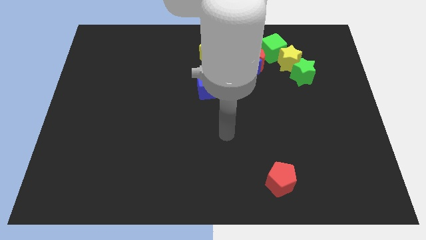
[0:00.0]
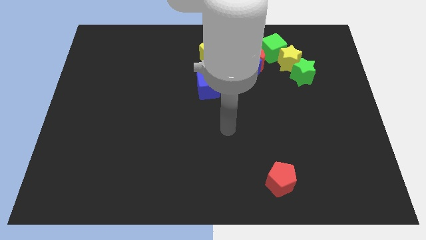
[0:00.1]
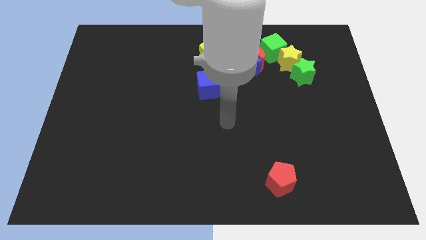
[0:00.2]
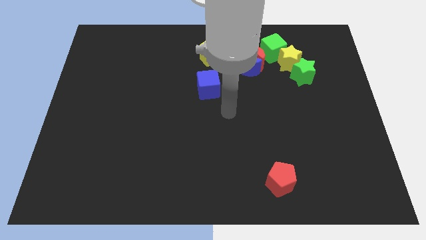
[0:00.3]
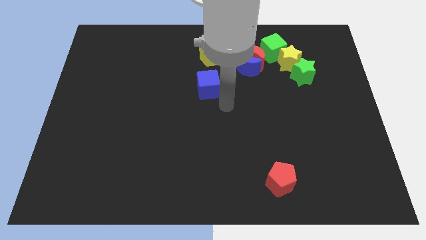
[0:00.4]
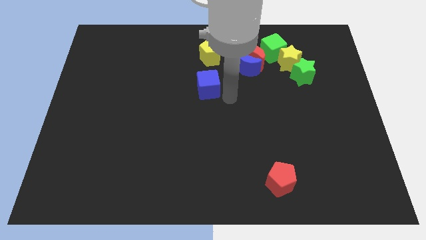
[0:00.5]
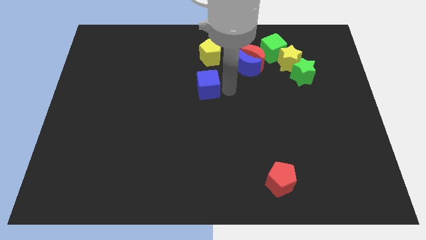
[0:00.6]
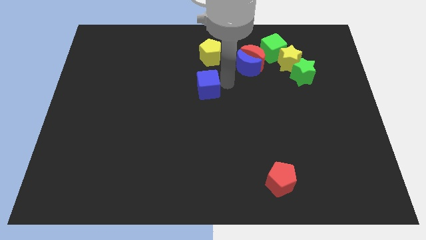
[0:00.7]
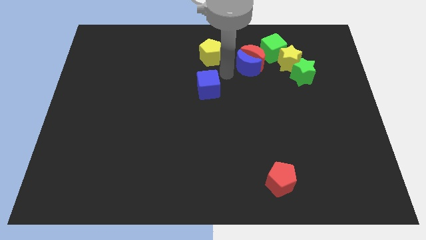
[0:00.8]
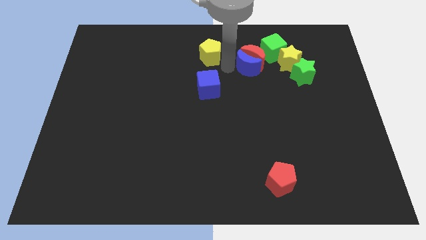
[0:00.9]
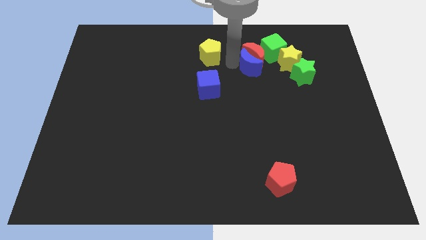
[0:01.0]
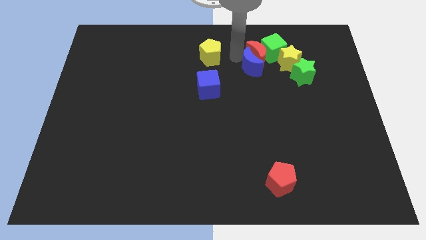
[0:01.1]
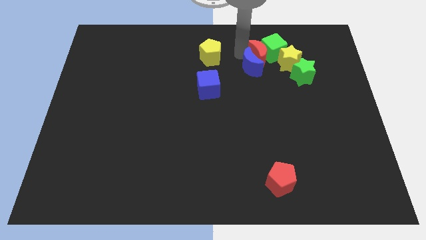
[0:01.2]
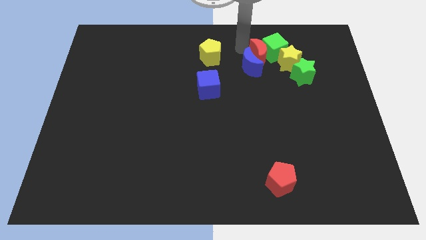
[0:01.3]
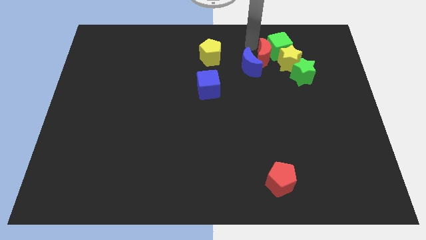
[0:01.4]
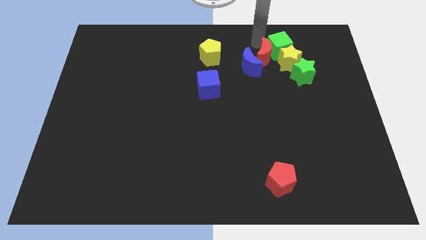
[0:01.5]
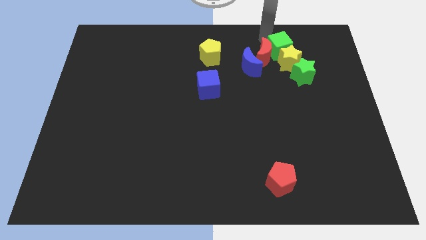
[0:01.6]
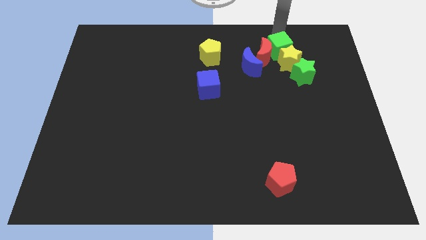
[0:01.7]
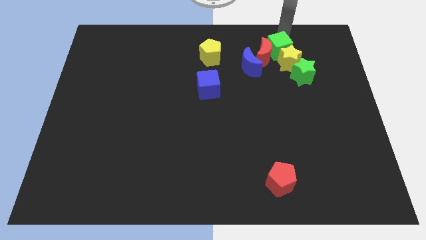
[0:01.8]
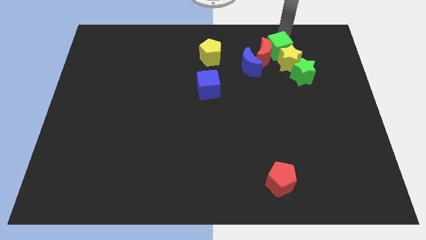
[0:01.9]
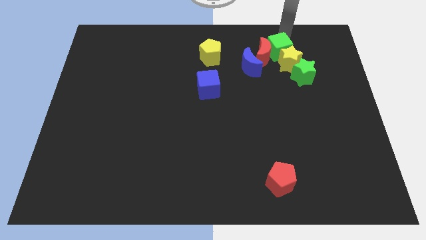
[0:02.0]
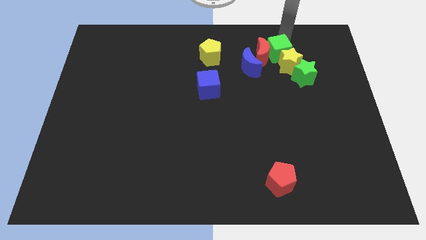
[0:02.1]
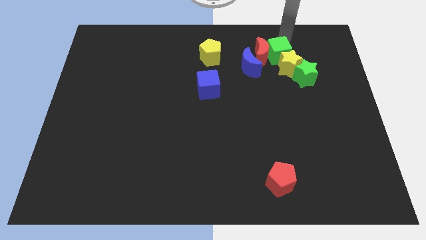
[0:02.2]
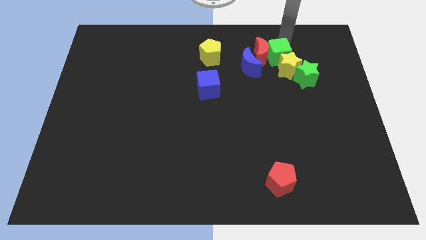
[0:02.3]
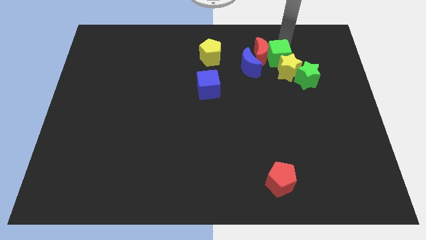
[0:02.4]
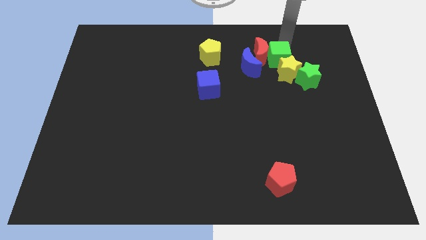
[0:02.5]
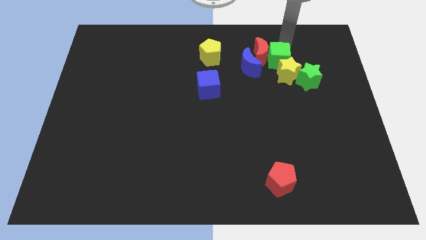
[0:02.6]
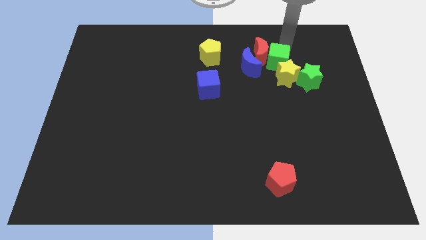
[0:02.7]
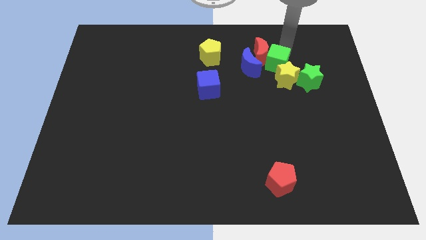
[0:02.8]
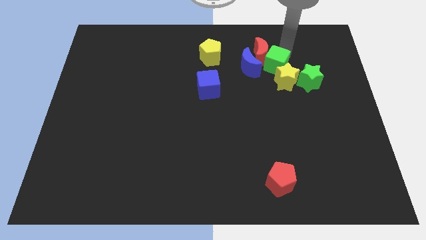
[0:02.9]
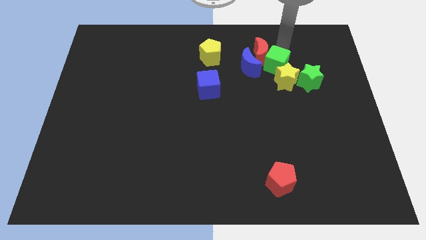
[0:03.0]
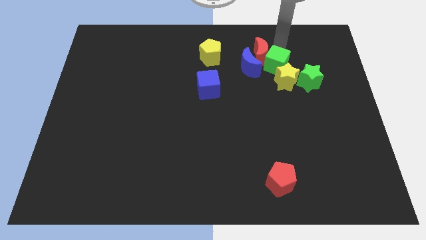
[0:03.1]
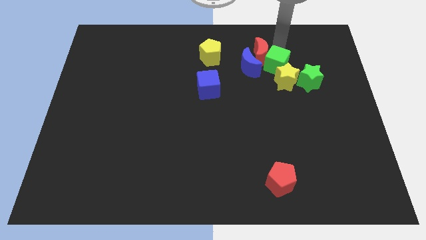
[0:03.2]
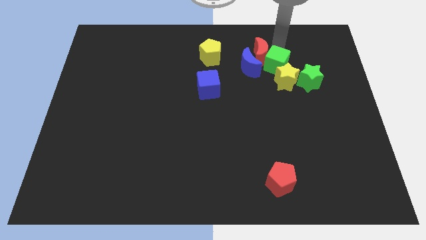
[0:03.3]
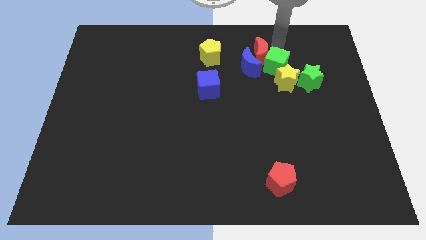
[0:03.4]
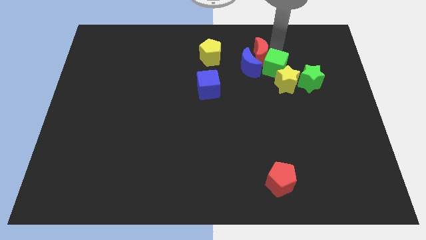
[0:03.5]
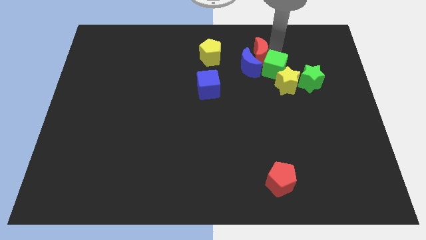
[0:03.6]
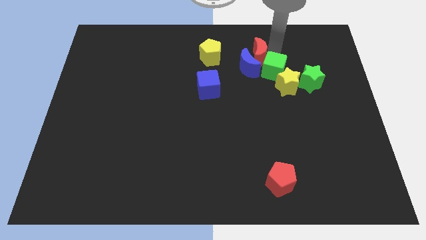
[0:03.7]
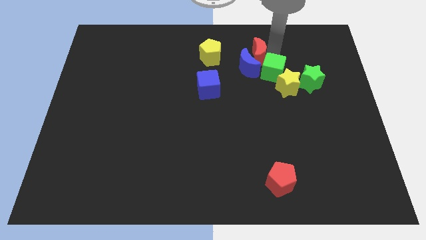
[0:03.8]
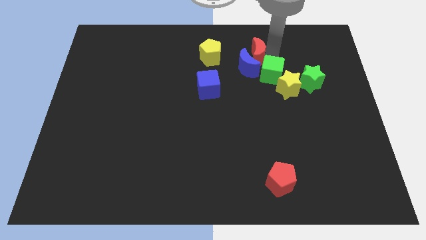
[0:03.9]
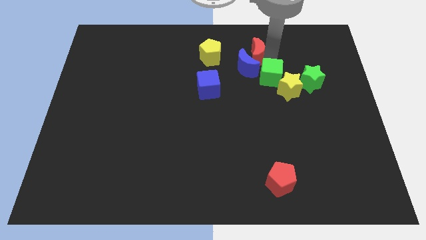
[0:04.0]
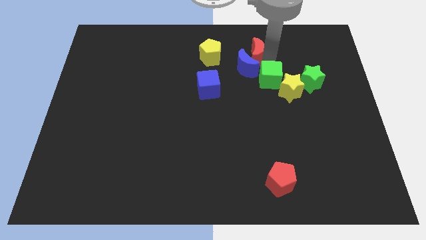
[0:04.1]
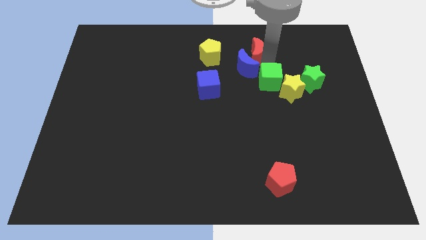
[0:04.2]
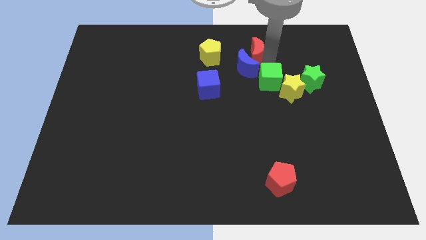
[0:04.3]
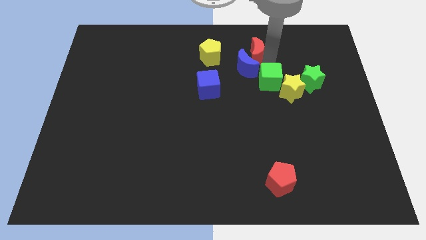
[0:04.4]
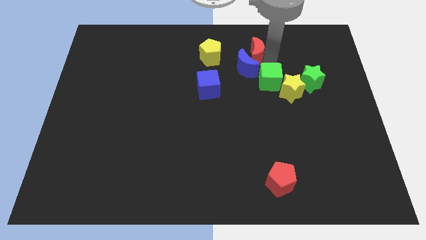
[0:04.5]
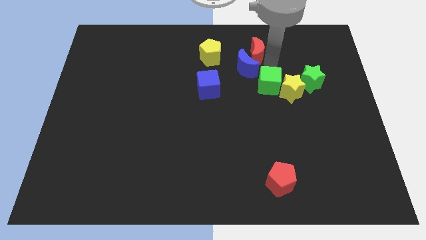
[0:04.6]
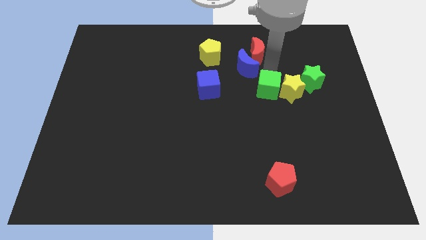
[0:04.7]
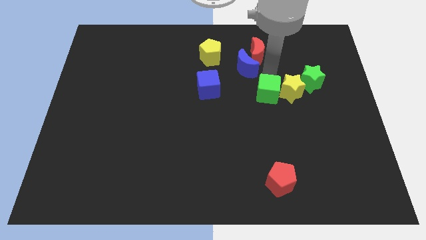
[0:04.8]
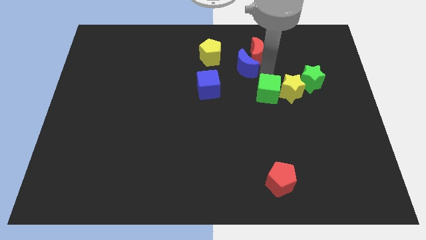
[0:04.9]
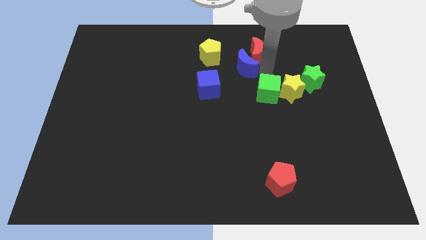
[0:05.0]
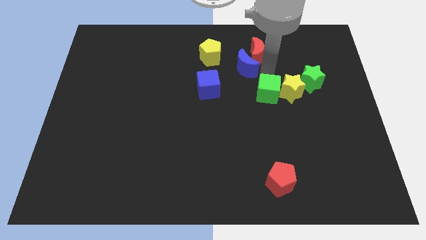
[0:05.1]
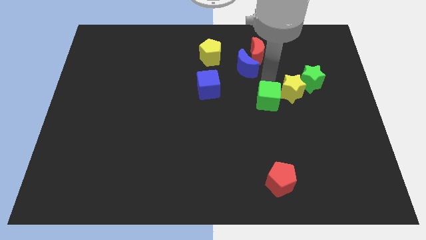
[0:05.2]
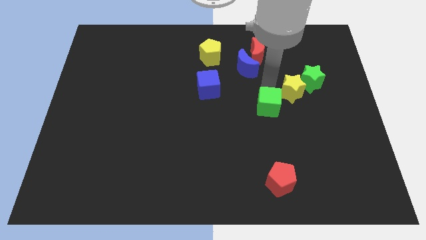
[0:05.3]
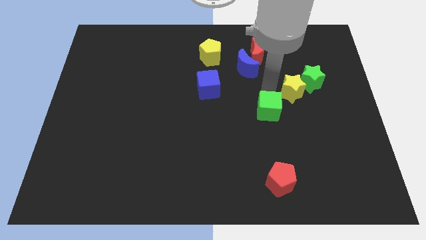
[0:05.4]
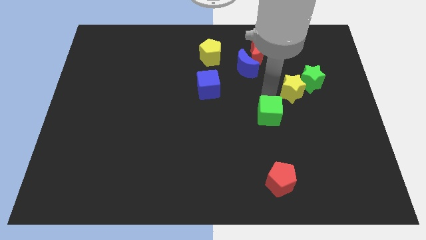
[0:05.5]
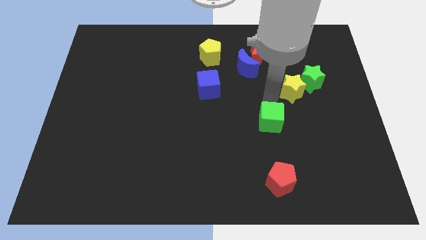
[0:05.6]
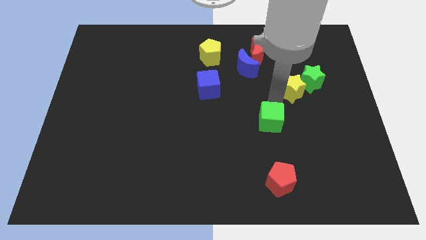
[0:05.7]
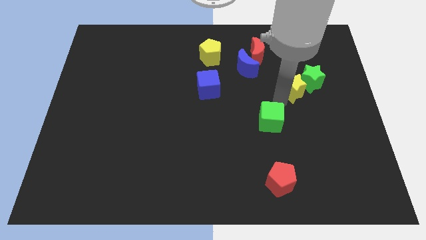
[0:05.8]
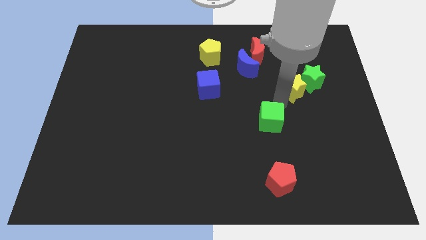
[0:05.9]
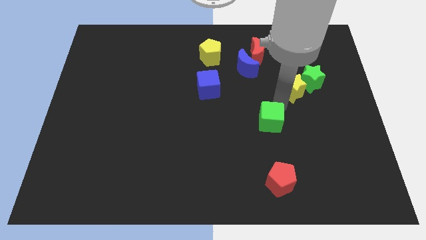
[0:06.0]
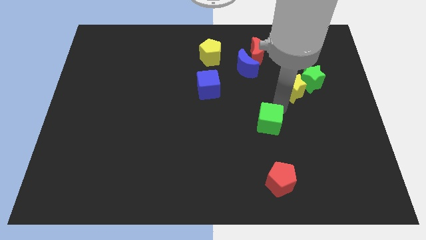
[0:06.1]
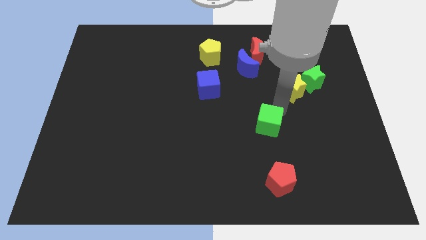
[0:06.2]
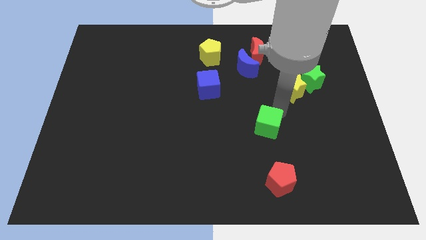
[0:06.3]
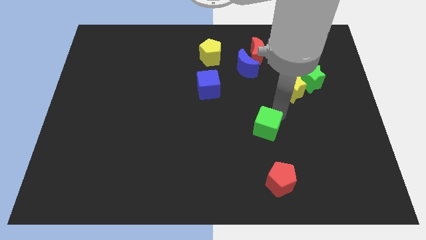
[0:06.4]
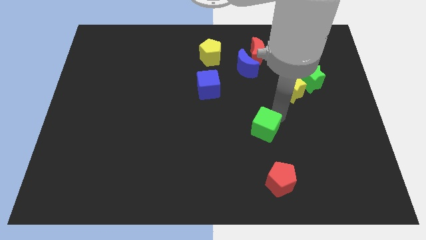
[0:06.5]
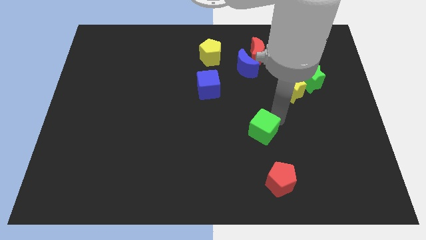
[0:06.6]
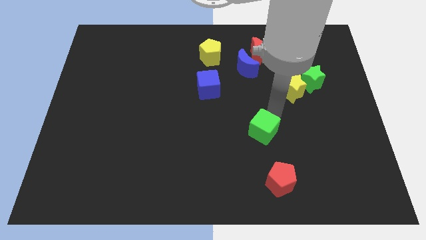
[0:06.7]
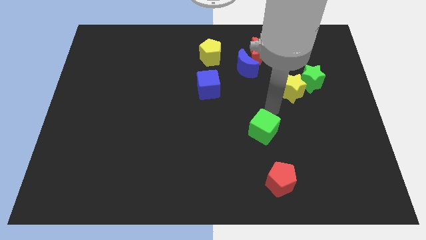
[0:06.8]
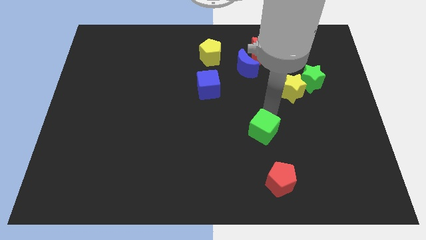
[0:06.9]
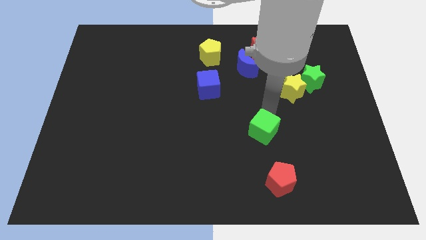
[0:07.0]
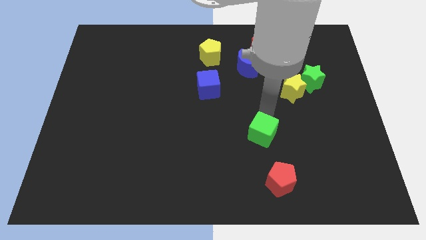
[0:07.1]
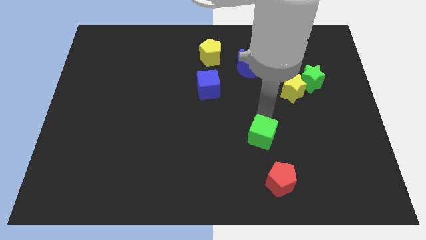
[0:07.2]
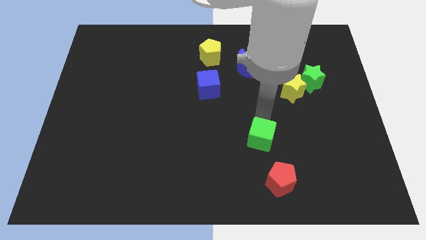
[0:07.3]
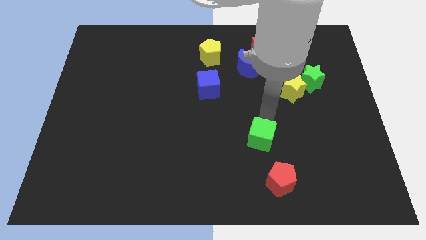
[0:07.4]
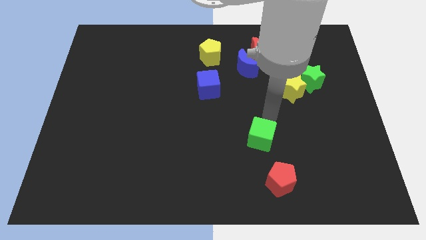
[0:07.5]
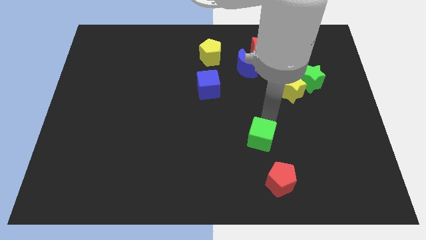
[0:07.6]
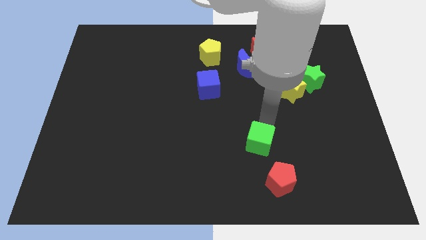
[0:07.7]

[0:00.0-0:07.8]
push the green cube diagonally up and to the left of the red pentagon
